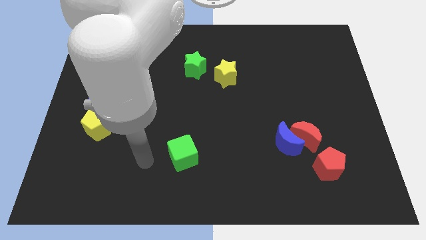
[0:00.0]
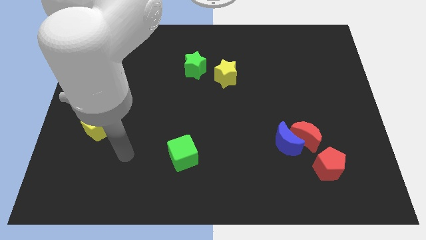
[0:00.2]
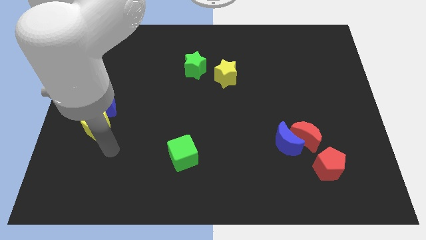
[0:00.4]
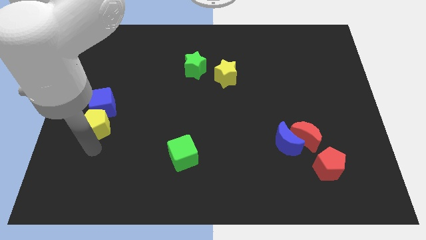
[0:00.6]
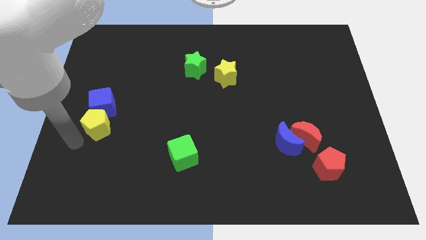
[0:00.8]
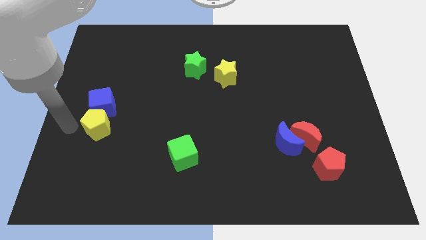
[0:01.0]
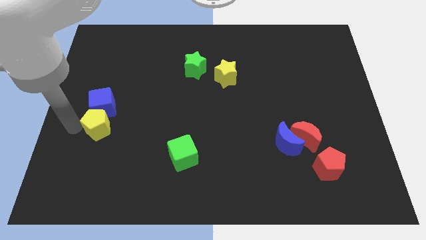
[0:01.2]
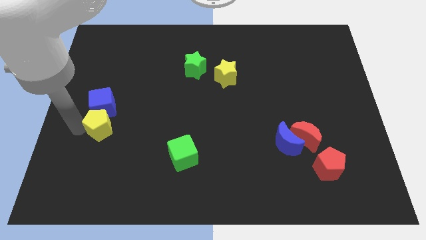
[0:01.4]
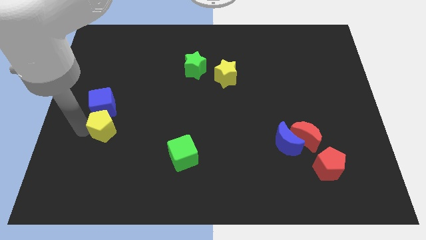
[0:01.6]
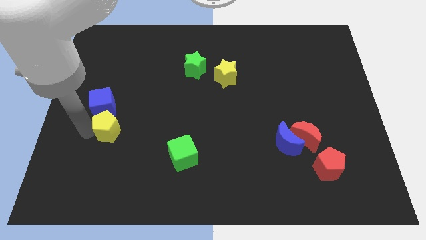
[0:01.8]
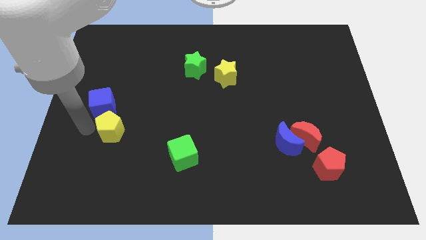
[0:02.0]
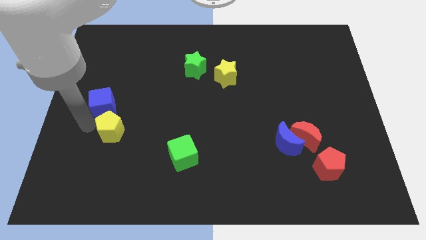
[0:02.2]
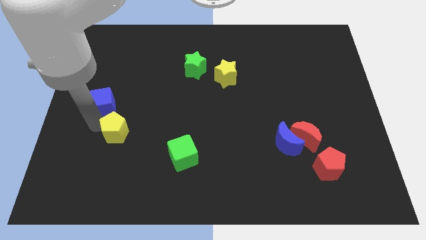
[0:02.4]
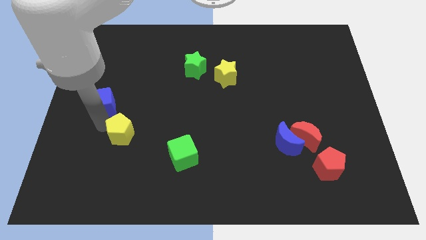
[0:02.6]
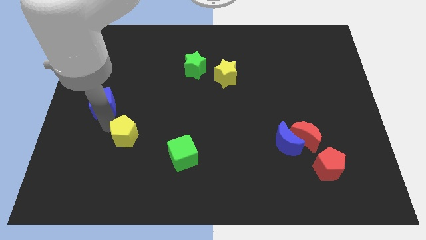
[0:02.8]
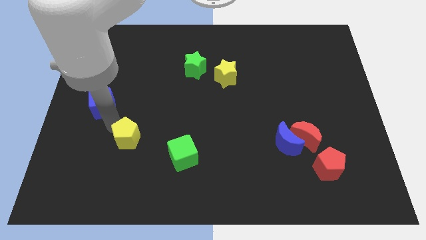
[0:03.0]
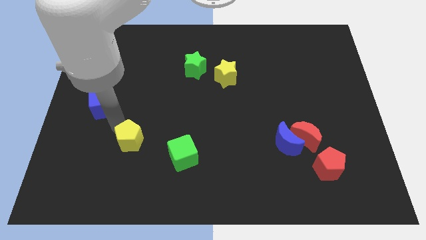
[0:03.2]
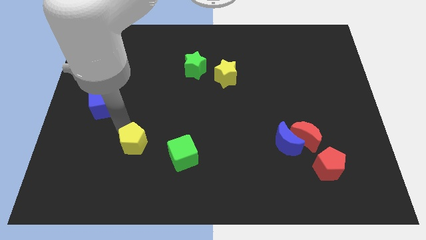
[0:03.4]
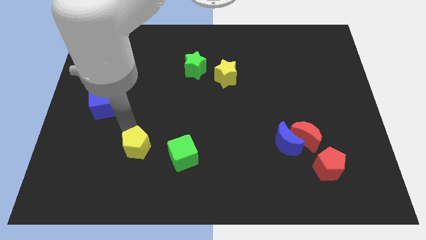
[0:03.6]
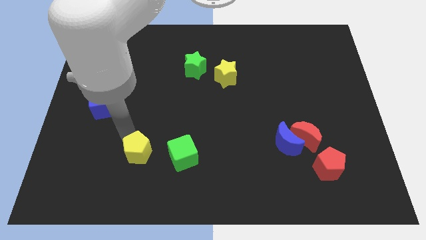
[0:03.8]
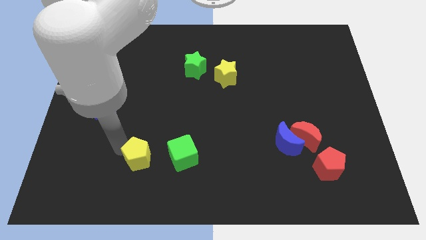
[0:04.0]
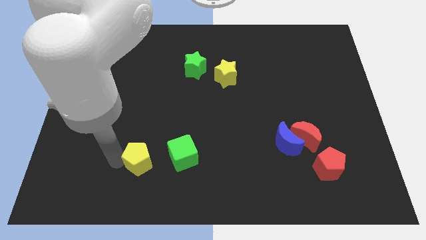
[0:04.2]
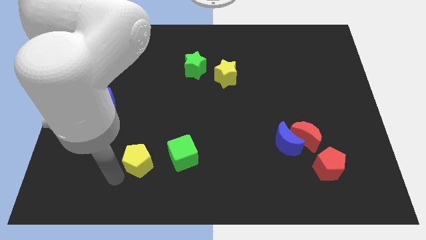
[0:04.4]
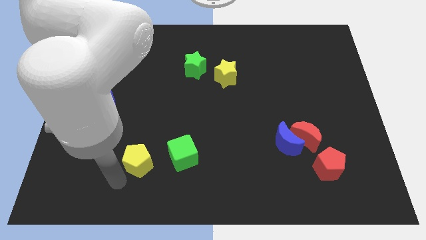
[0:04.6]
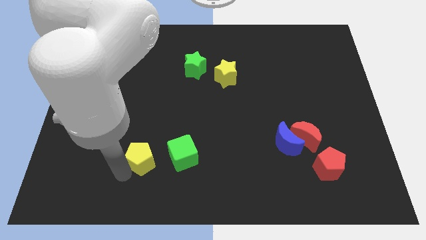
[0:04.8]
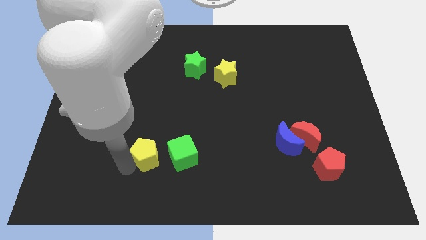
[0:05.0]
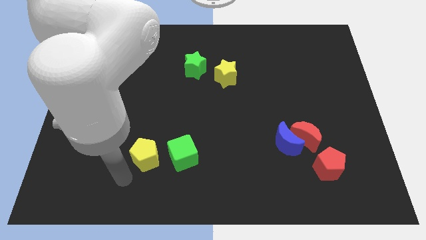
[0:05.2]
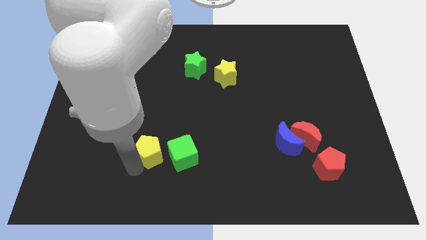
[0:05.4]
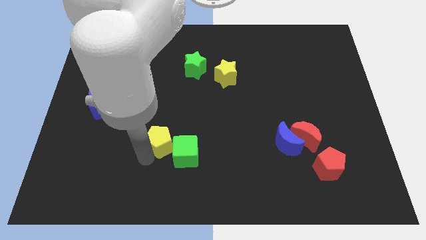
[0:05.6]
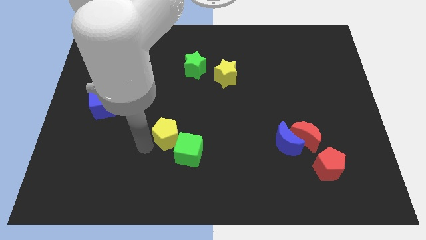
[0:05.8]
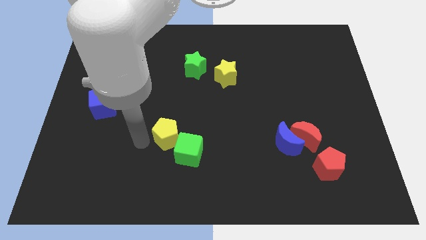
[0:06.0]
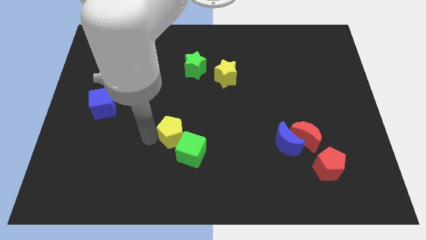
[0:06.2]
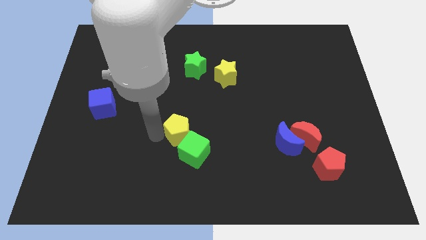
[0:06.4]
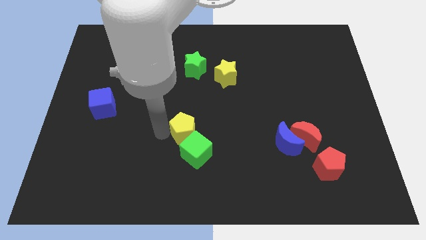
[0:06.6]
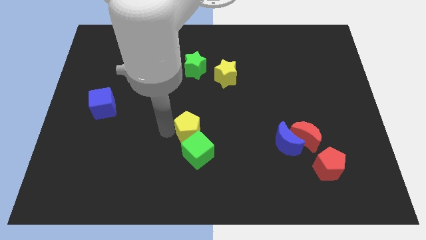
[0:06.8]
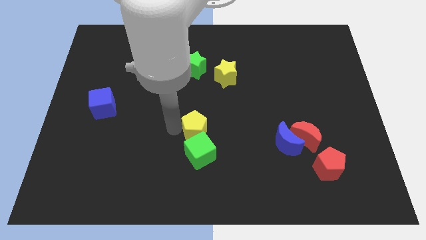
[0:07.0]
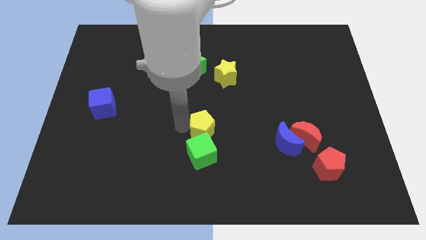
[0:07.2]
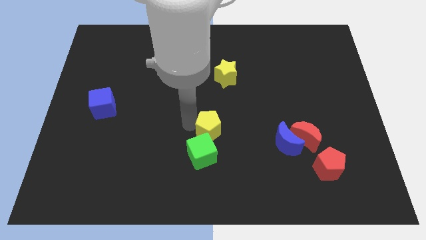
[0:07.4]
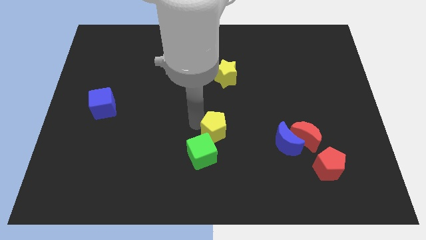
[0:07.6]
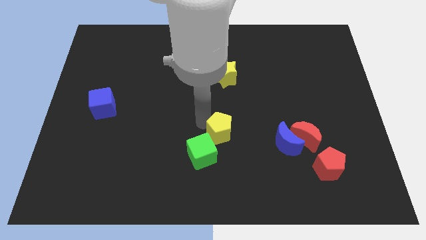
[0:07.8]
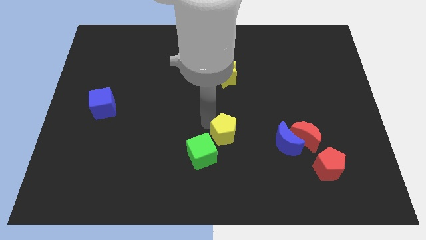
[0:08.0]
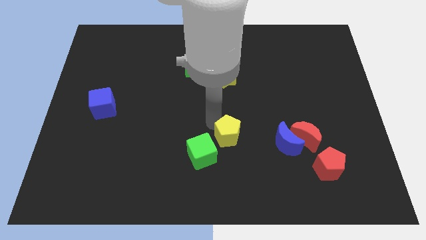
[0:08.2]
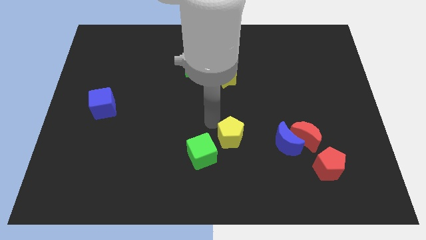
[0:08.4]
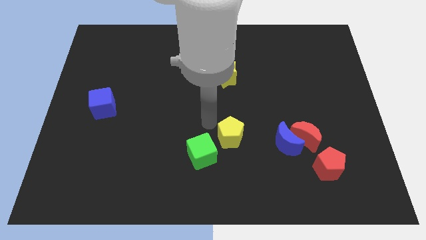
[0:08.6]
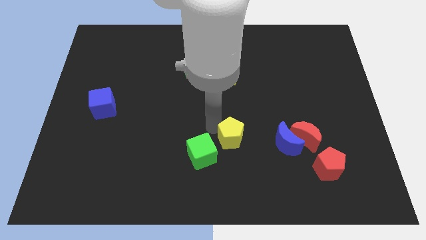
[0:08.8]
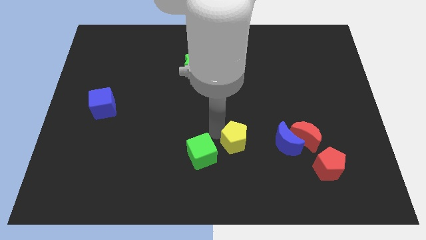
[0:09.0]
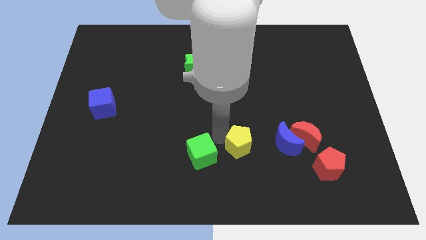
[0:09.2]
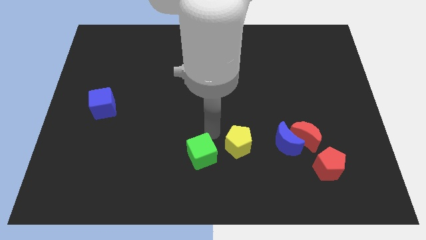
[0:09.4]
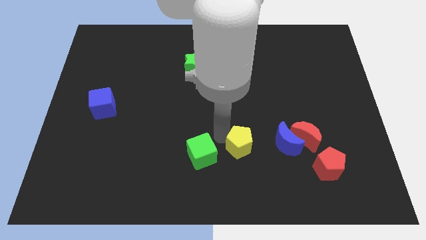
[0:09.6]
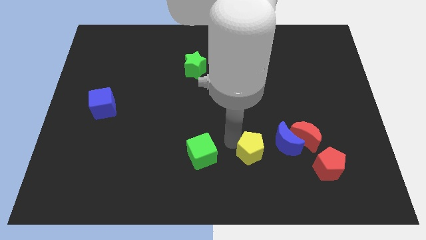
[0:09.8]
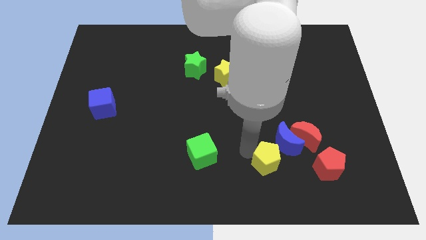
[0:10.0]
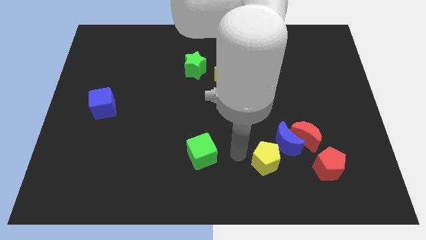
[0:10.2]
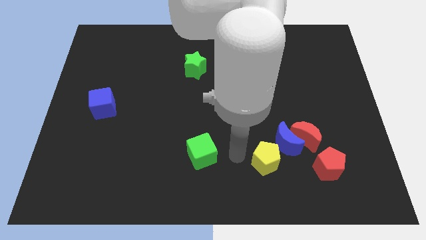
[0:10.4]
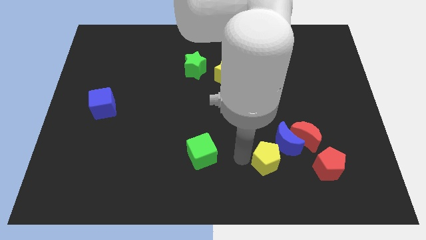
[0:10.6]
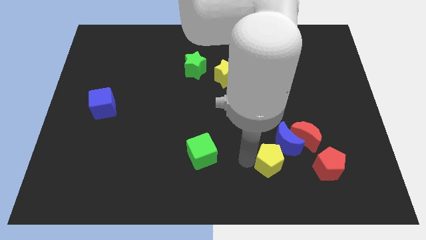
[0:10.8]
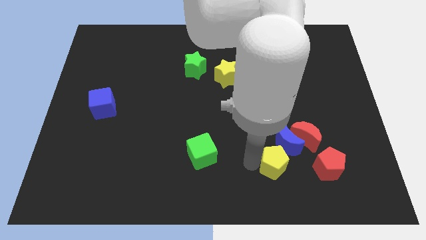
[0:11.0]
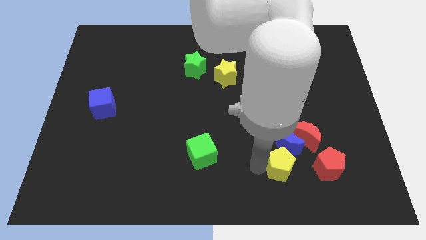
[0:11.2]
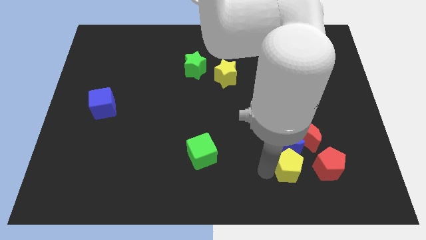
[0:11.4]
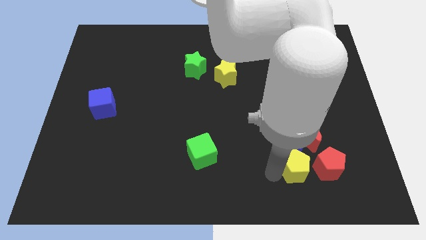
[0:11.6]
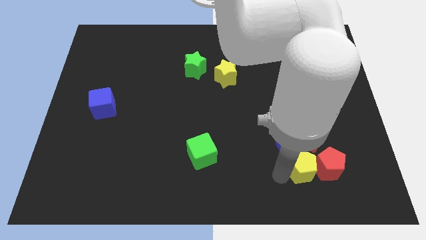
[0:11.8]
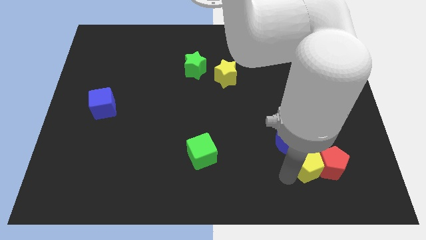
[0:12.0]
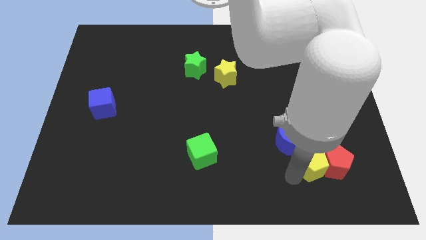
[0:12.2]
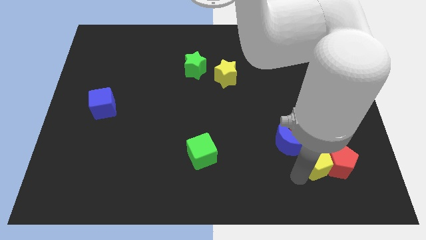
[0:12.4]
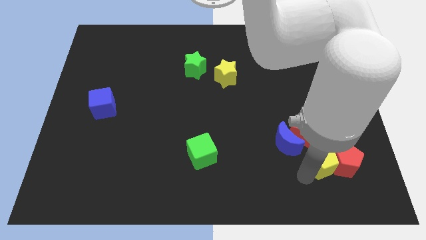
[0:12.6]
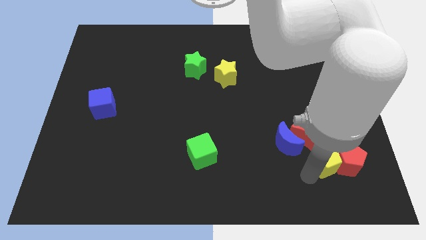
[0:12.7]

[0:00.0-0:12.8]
push the yellow pentagon to the right side of the blue moon
